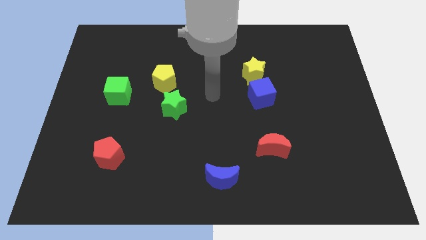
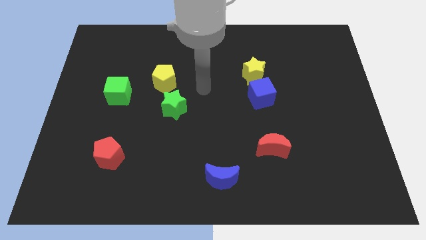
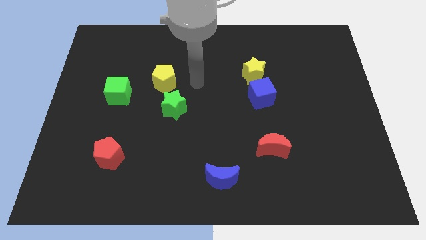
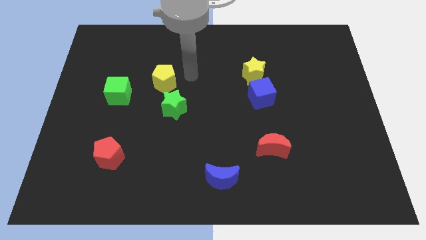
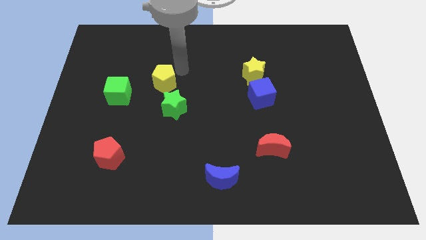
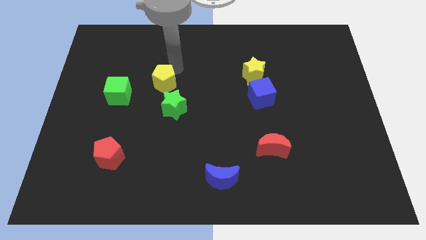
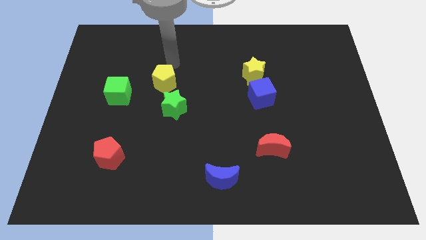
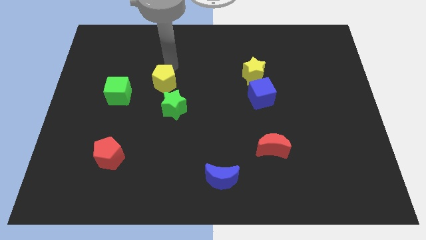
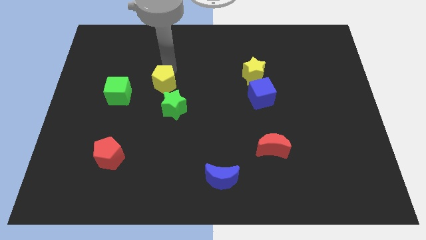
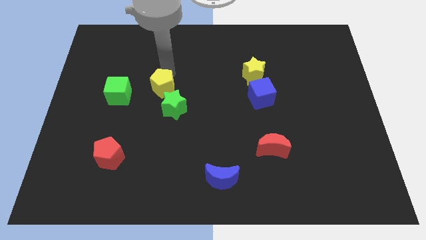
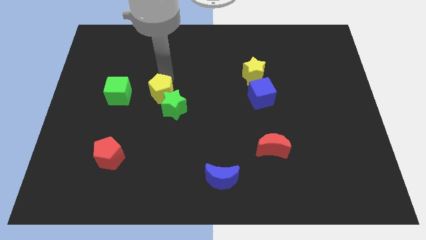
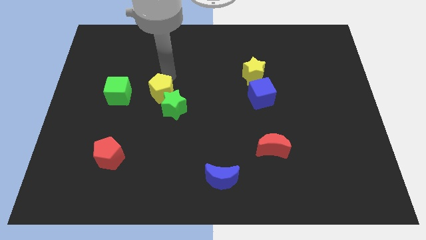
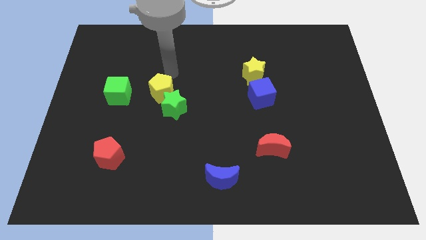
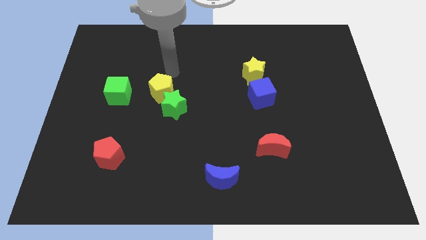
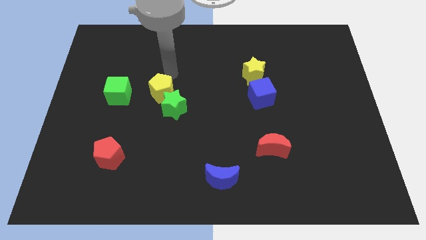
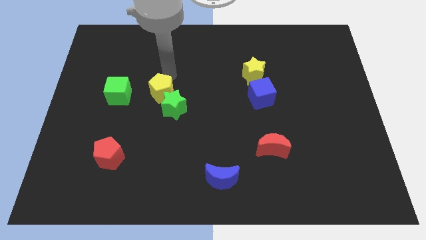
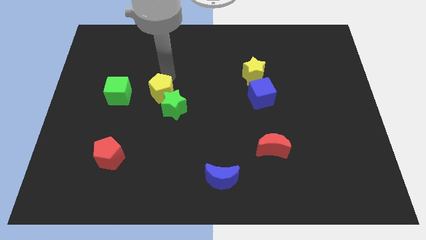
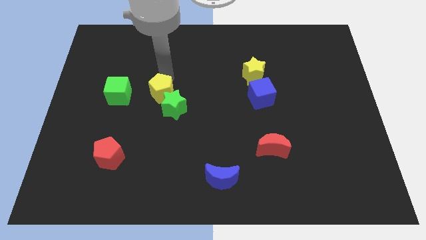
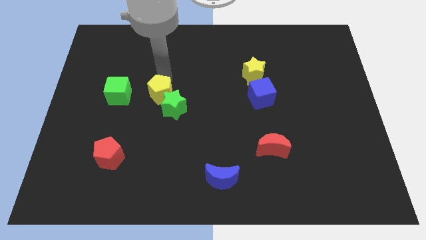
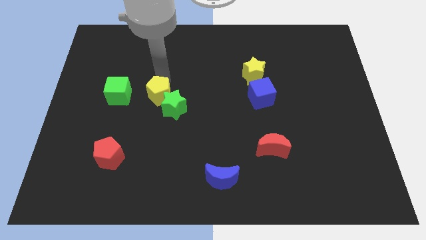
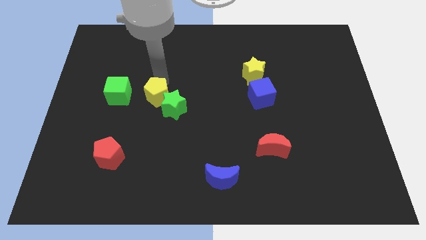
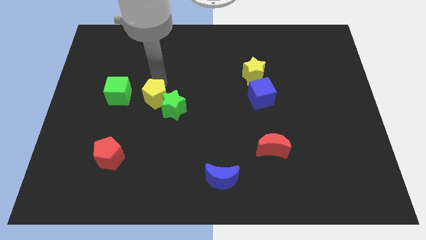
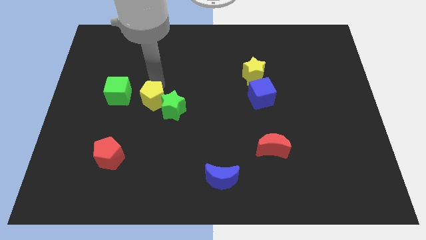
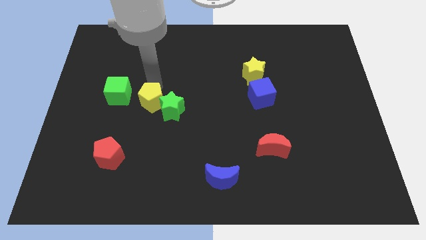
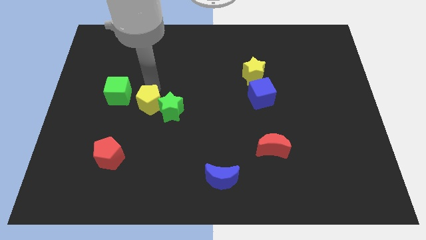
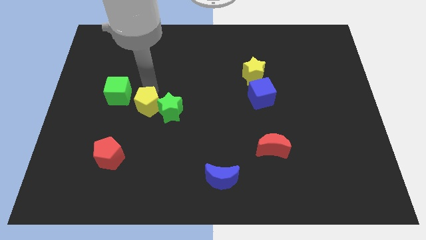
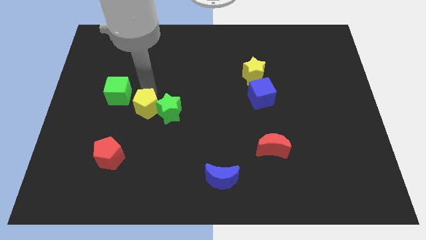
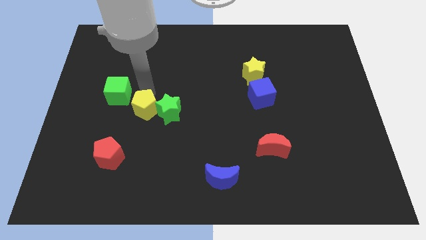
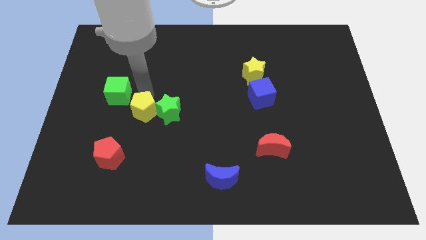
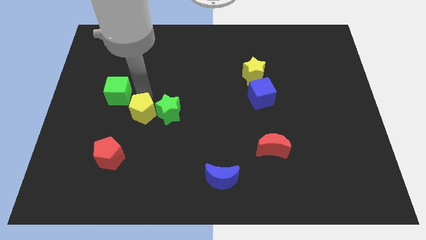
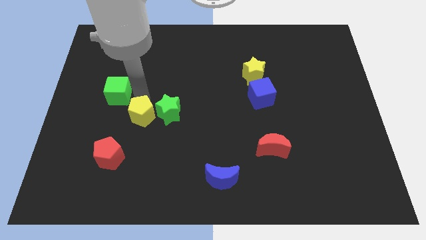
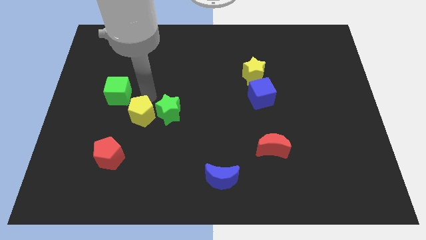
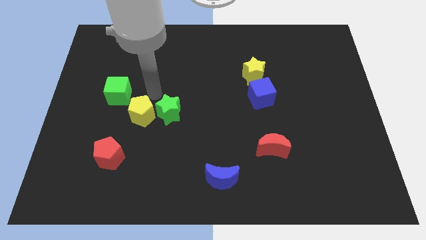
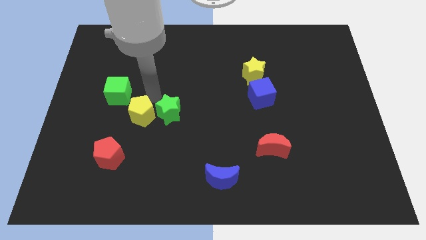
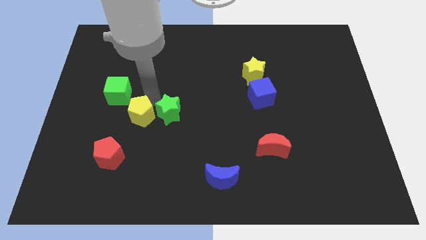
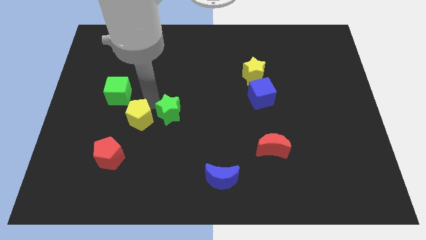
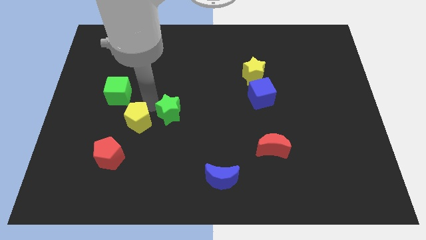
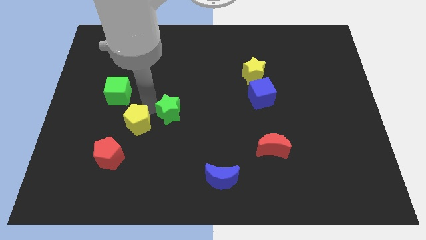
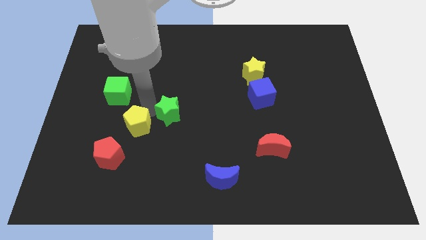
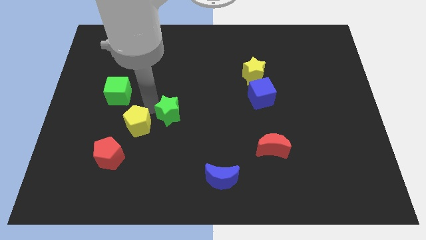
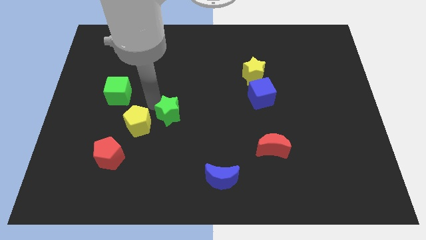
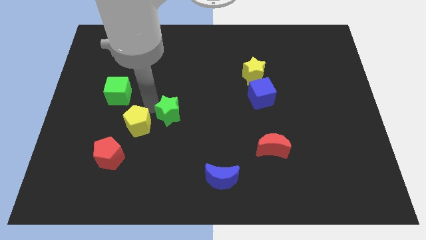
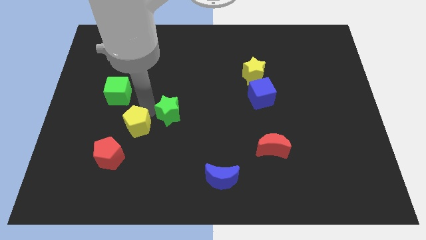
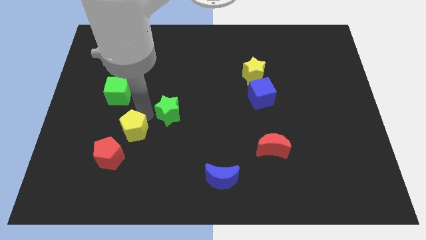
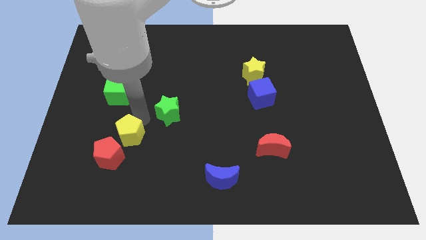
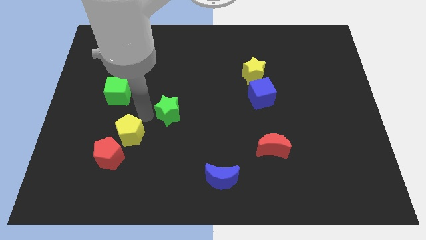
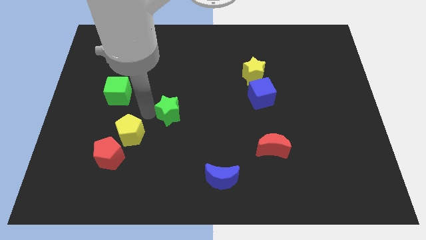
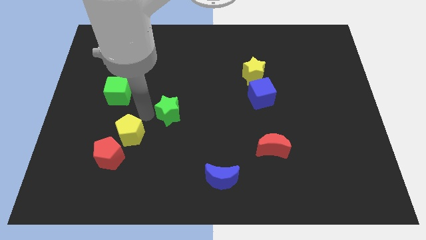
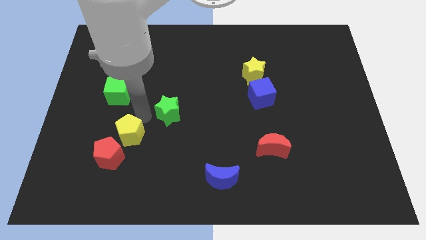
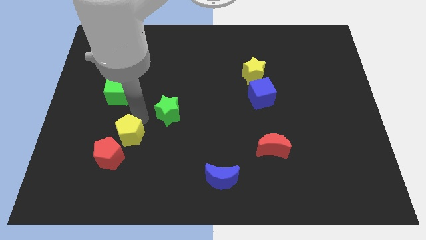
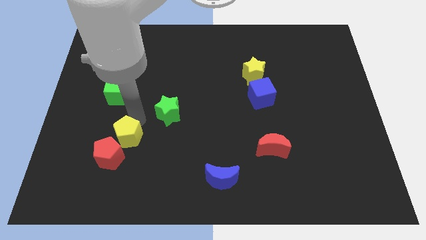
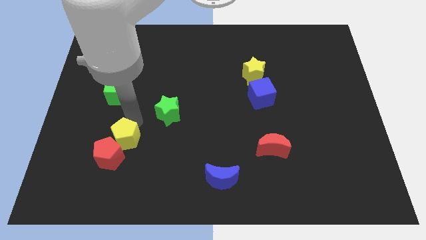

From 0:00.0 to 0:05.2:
put the yellow pentagon to the red pentagon

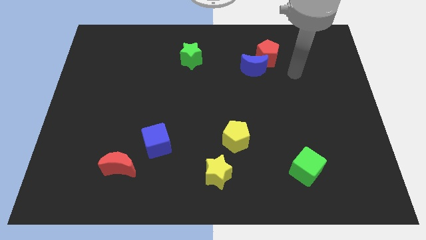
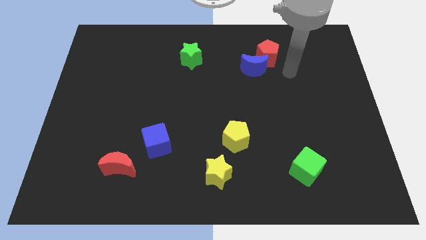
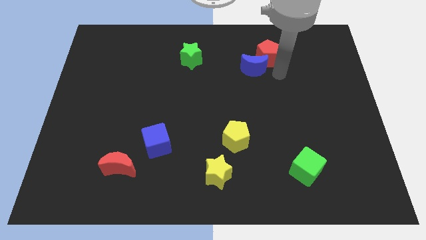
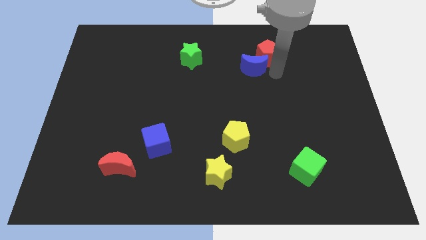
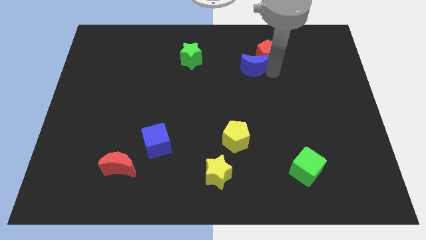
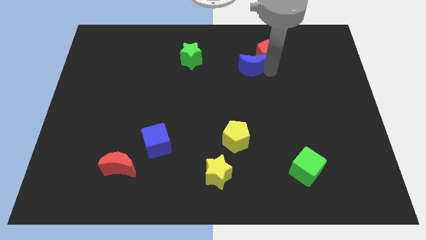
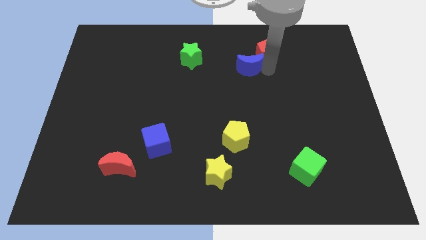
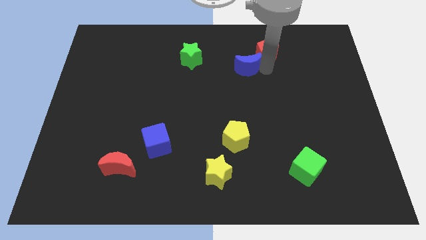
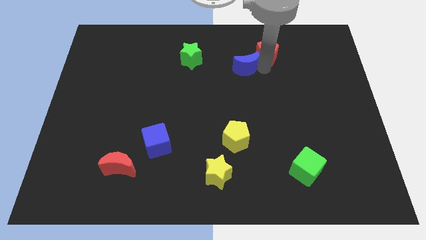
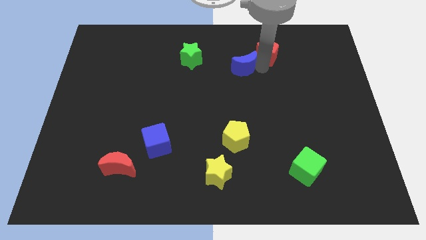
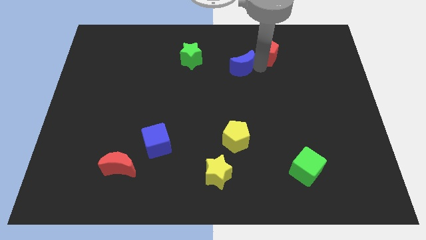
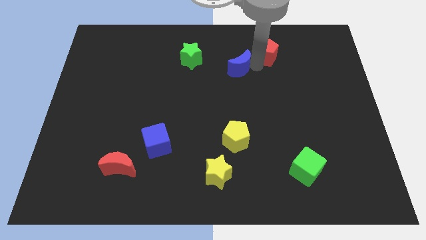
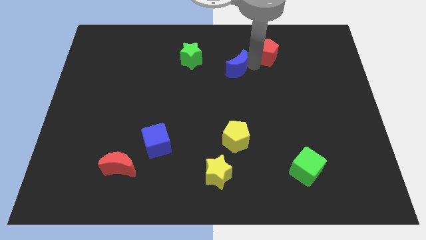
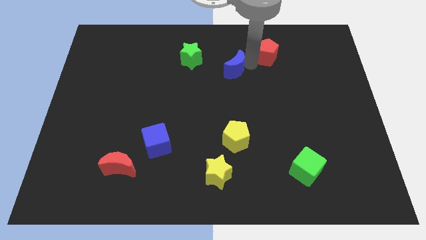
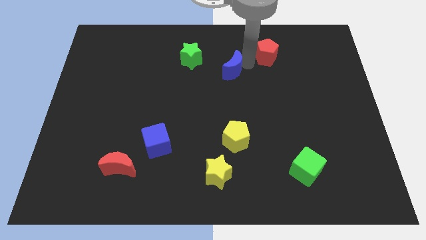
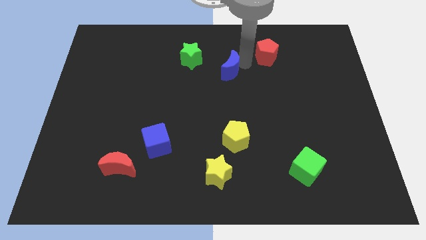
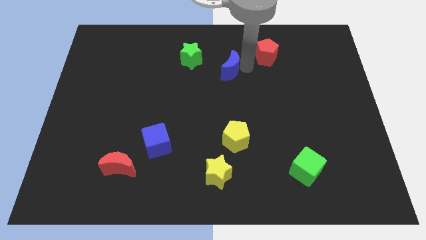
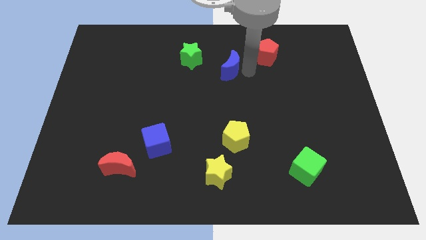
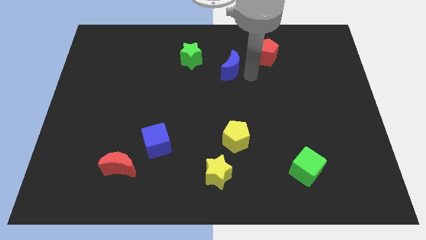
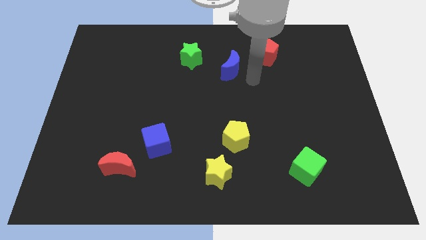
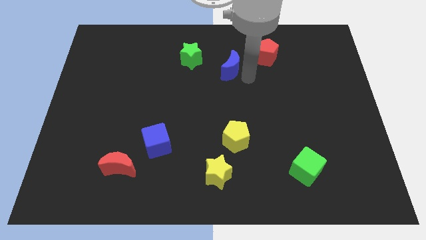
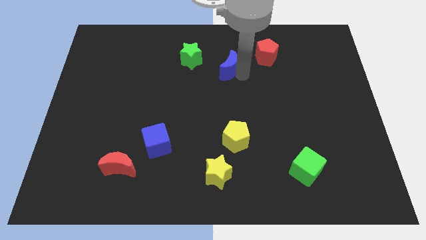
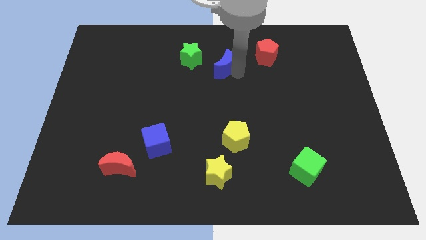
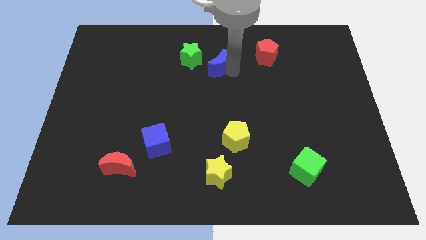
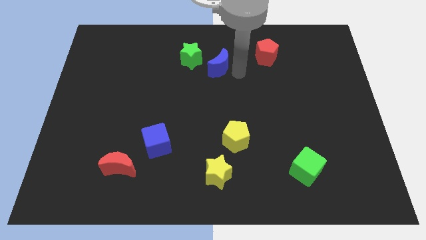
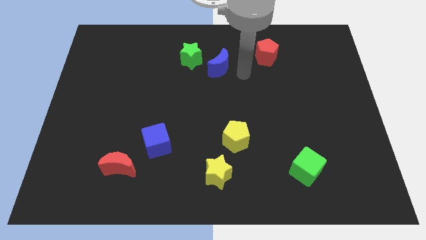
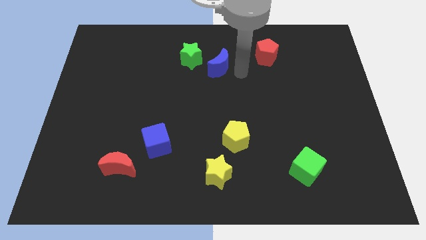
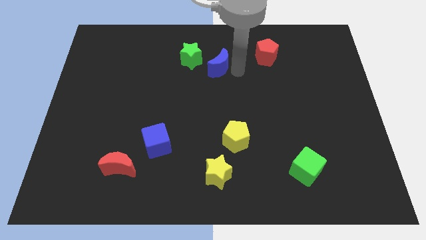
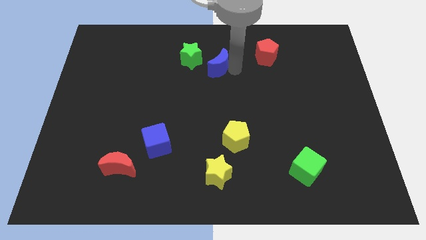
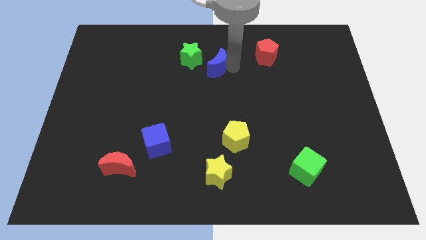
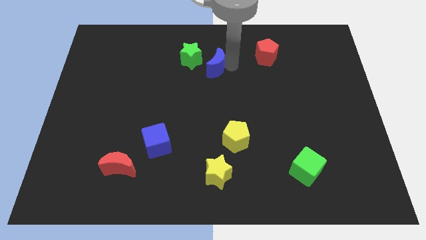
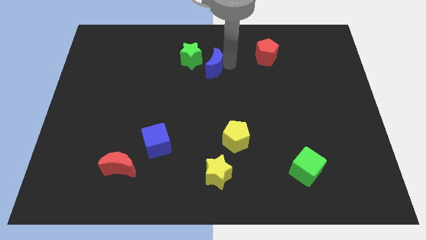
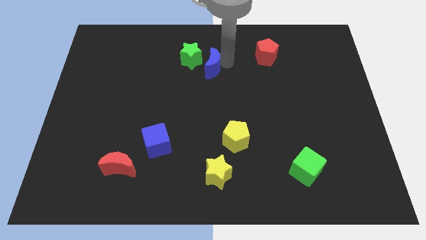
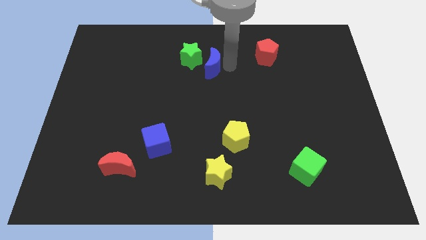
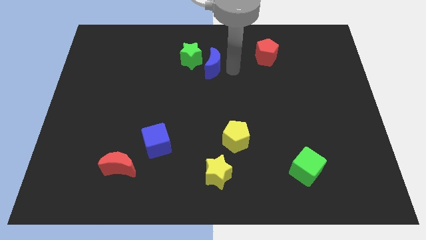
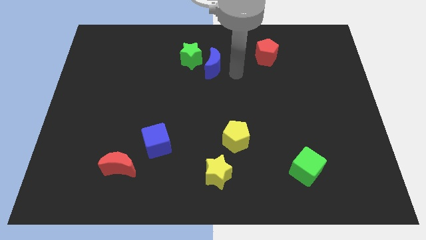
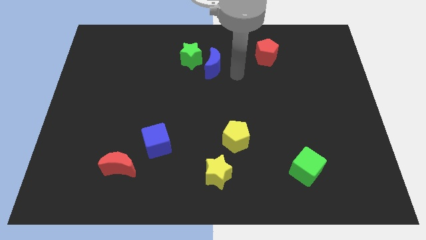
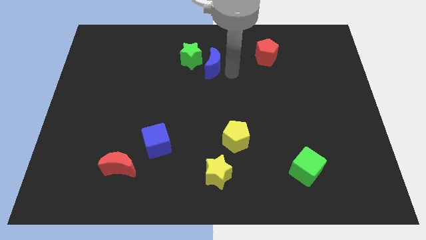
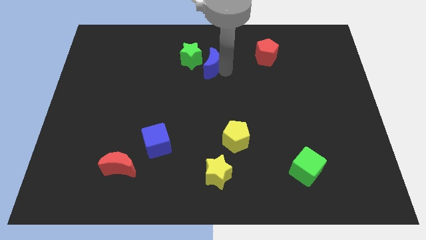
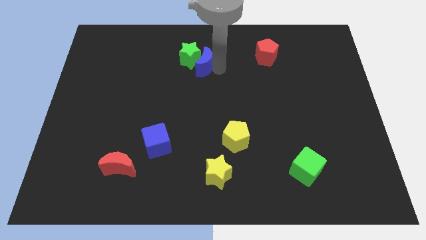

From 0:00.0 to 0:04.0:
move the blue moon towards the green star
